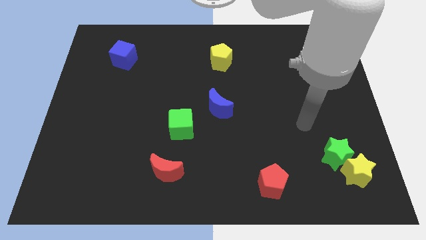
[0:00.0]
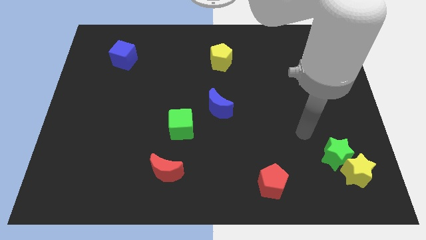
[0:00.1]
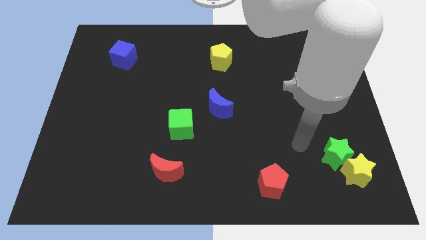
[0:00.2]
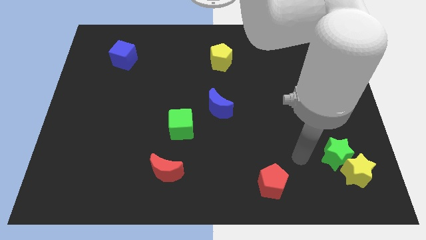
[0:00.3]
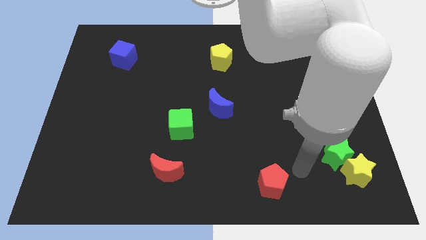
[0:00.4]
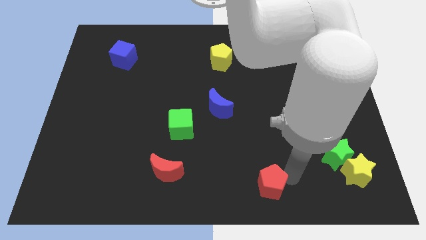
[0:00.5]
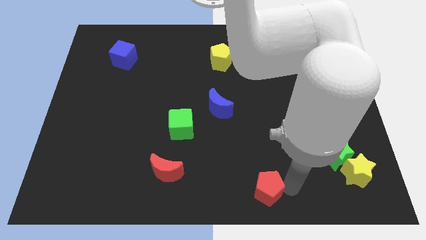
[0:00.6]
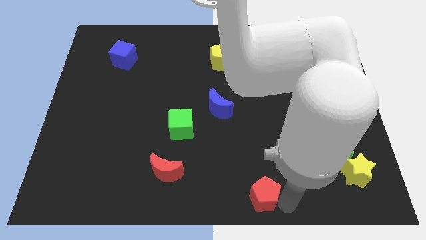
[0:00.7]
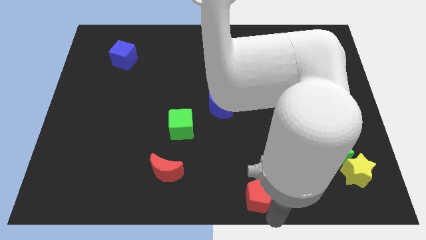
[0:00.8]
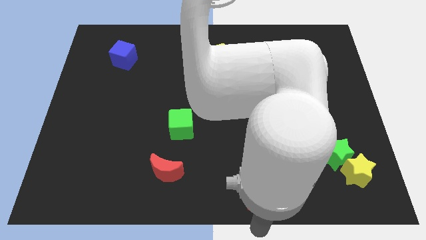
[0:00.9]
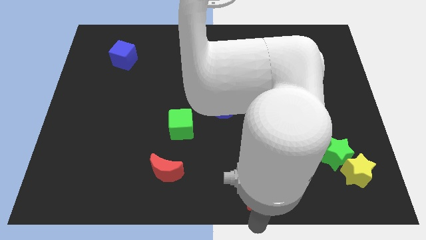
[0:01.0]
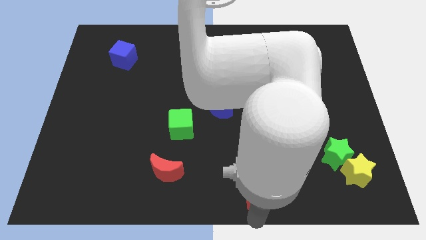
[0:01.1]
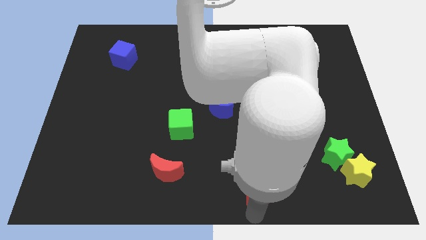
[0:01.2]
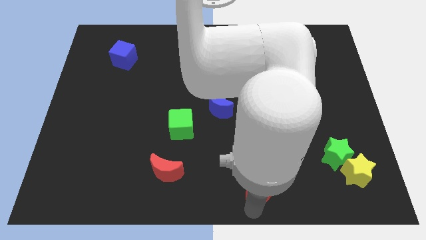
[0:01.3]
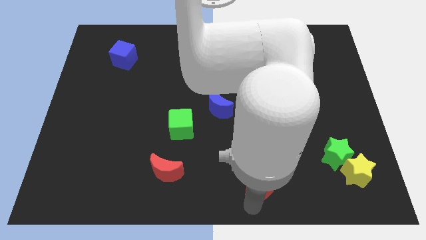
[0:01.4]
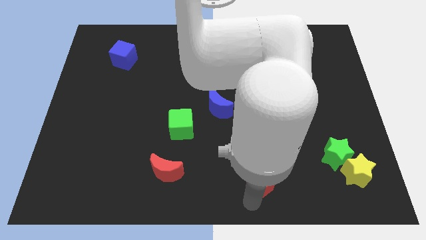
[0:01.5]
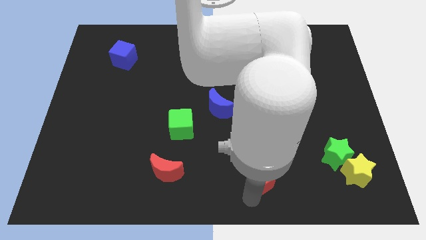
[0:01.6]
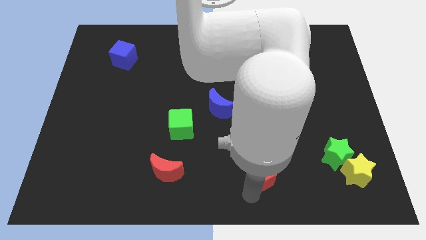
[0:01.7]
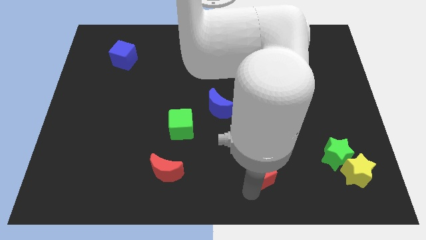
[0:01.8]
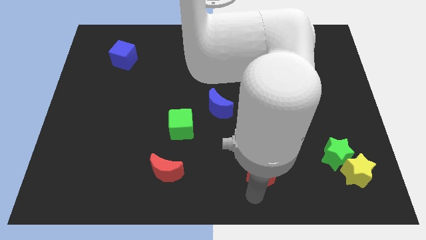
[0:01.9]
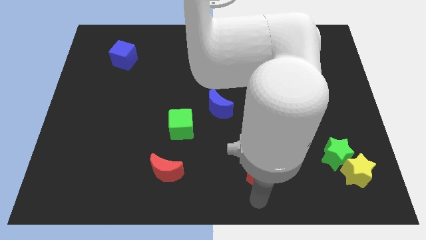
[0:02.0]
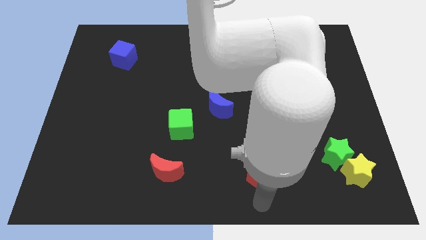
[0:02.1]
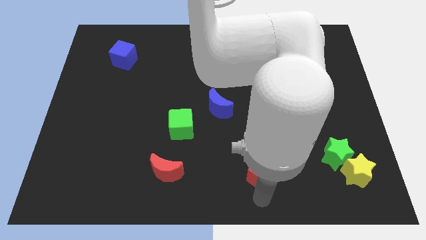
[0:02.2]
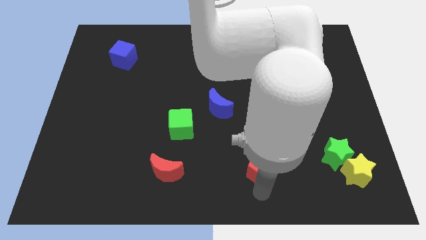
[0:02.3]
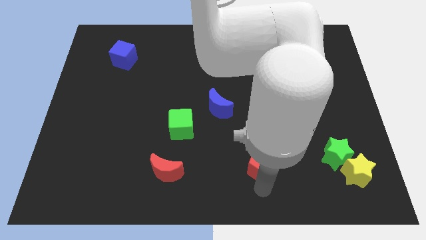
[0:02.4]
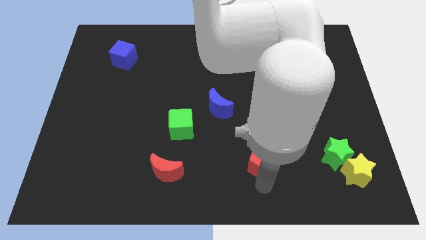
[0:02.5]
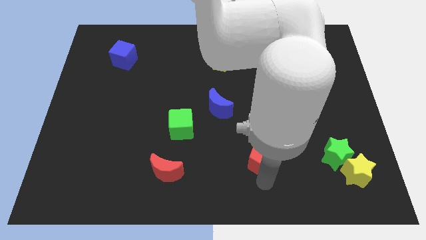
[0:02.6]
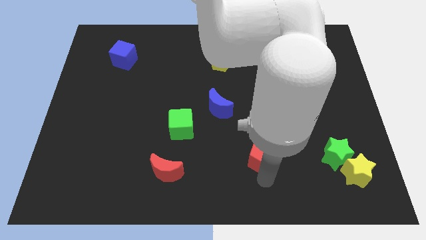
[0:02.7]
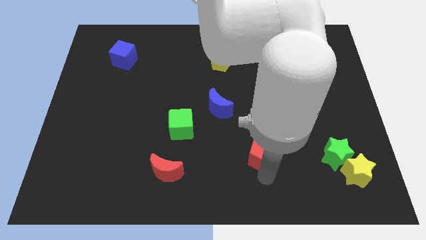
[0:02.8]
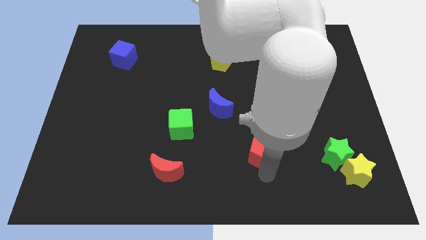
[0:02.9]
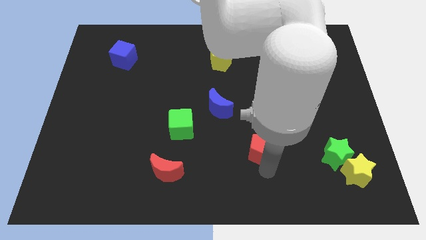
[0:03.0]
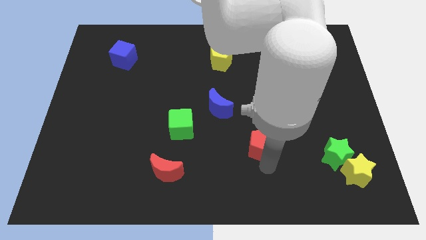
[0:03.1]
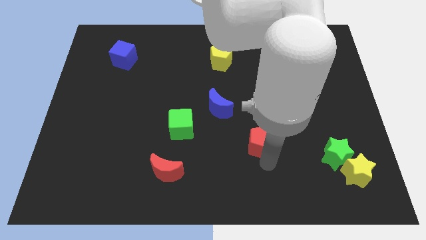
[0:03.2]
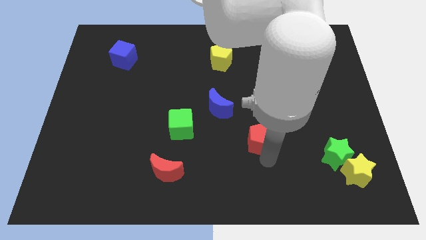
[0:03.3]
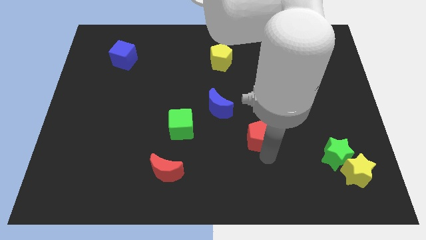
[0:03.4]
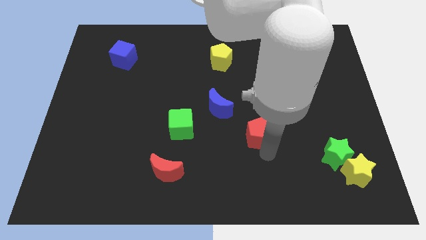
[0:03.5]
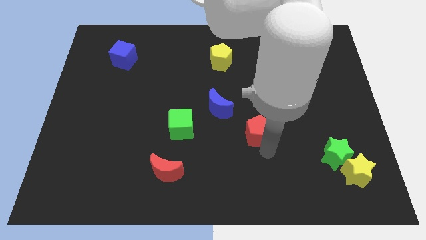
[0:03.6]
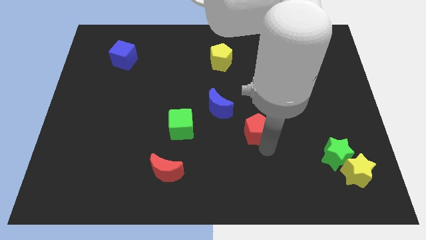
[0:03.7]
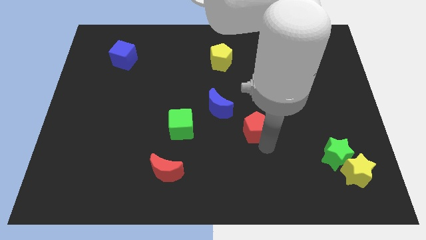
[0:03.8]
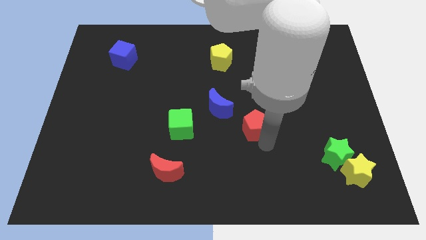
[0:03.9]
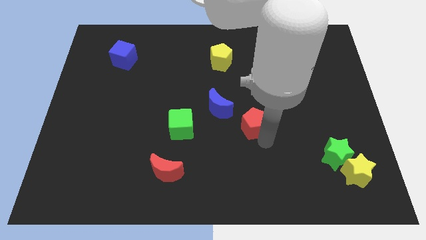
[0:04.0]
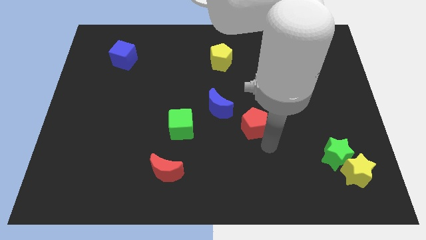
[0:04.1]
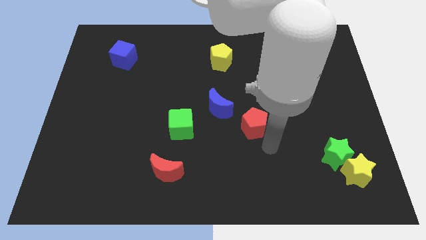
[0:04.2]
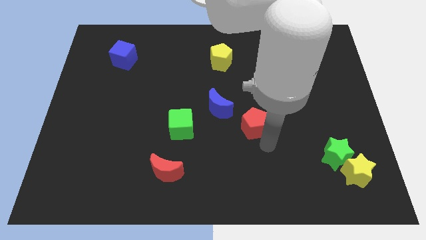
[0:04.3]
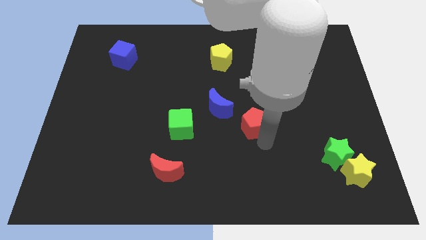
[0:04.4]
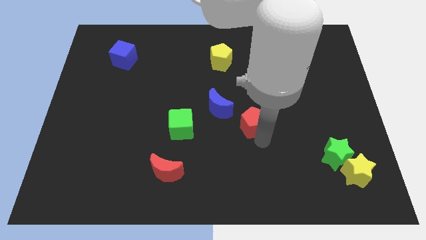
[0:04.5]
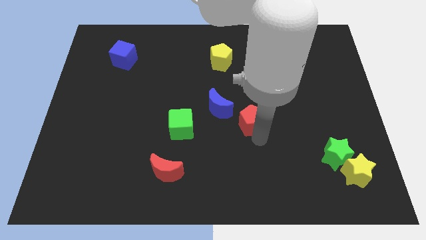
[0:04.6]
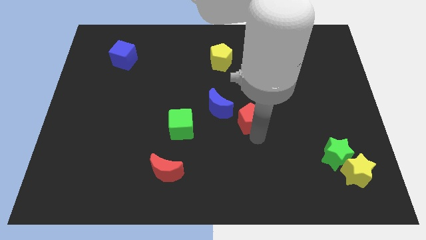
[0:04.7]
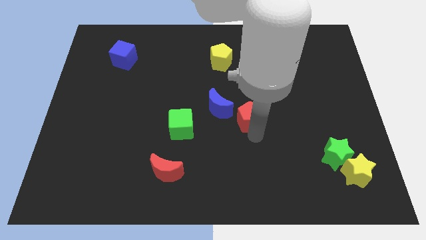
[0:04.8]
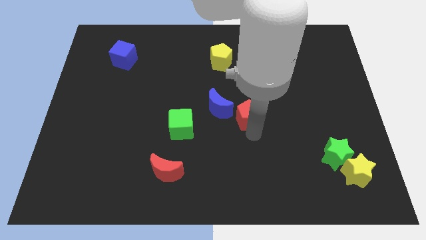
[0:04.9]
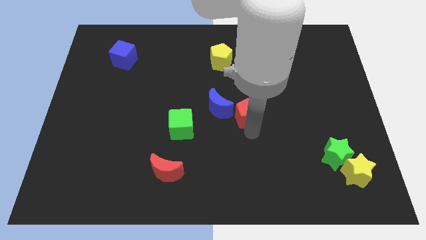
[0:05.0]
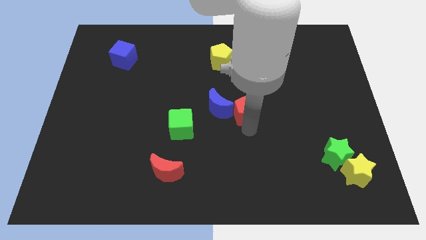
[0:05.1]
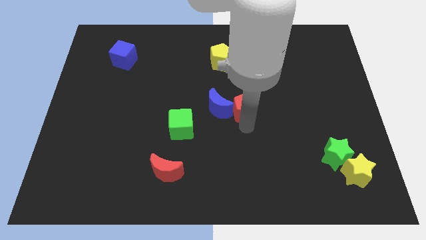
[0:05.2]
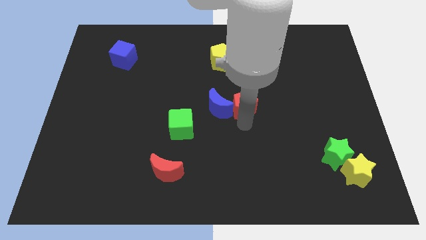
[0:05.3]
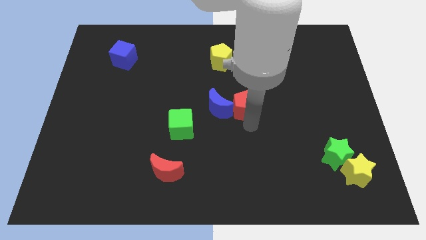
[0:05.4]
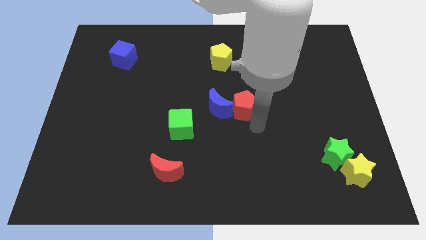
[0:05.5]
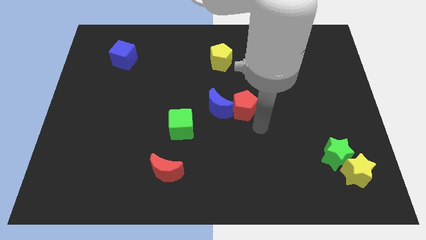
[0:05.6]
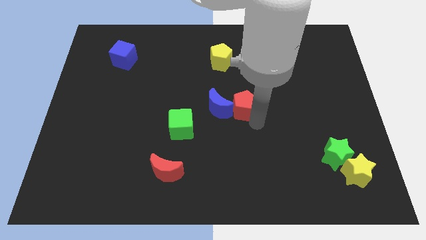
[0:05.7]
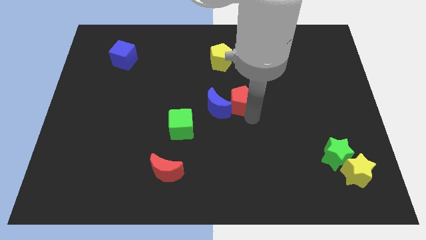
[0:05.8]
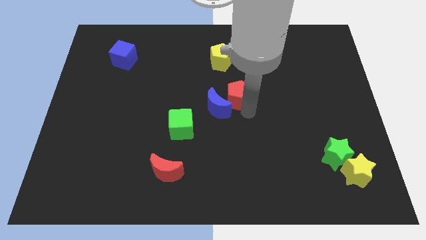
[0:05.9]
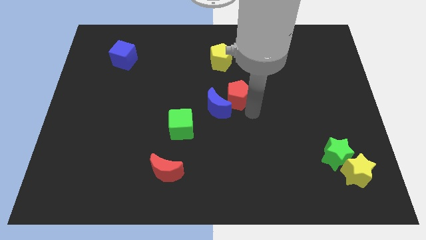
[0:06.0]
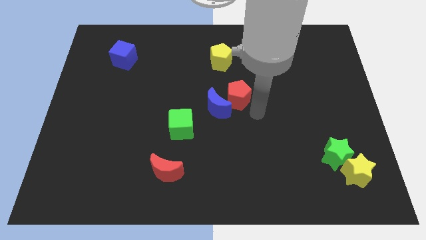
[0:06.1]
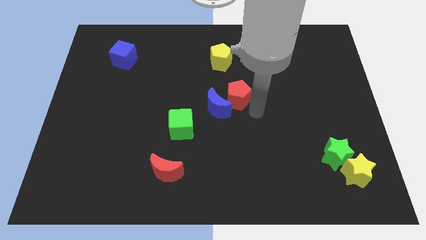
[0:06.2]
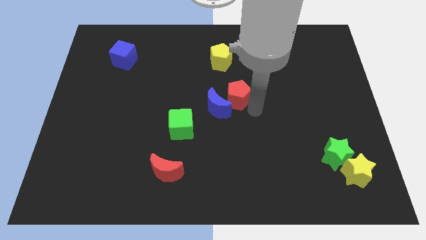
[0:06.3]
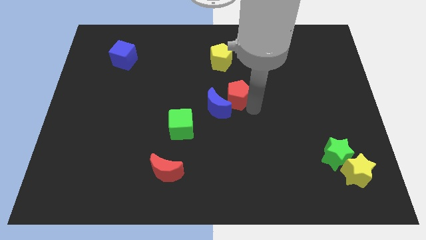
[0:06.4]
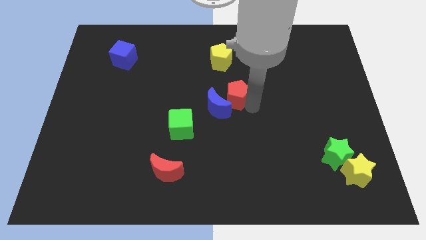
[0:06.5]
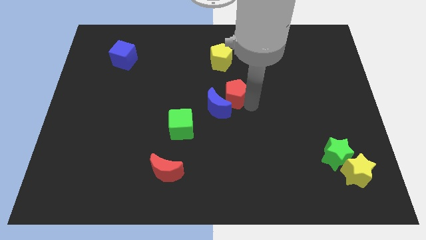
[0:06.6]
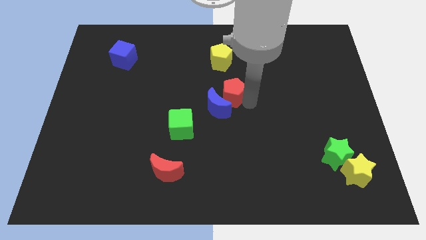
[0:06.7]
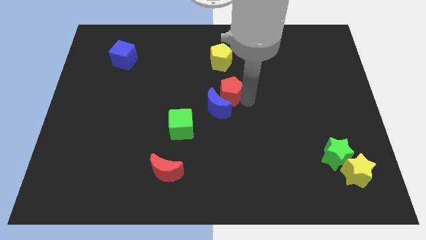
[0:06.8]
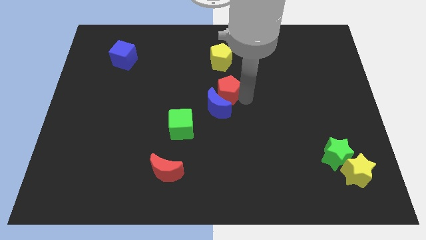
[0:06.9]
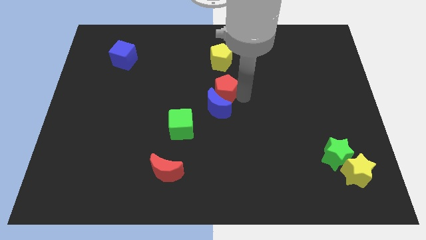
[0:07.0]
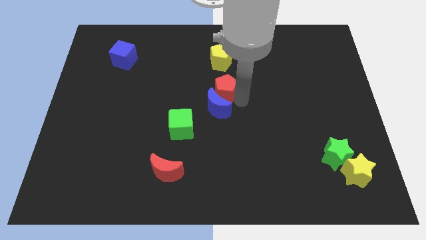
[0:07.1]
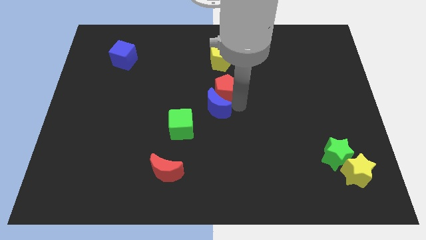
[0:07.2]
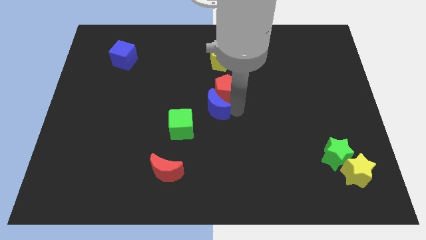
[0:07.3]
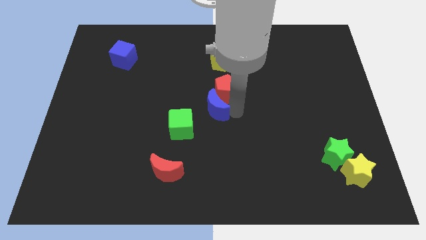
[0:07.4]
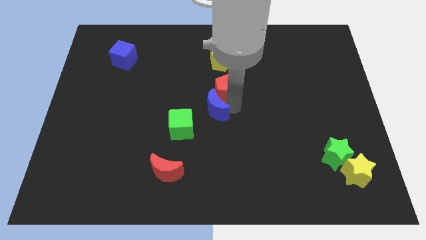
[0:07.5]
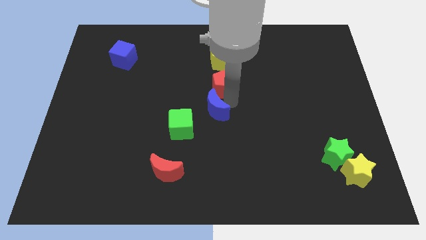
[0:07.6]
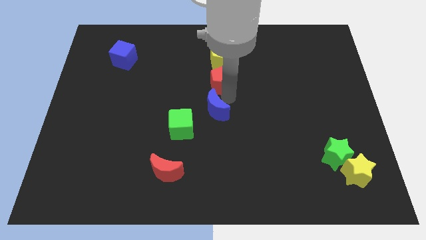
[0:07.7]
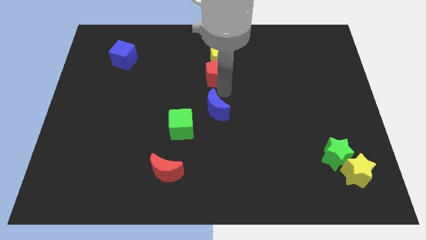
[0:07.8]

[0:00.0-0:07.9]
push the red pentagon next to the yellow pentagon
